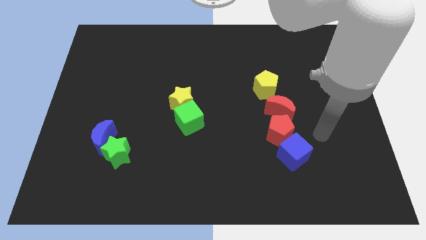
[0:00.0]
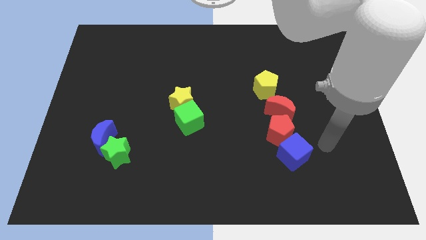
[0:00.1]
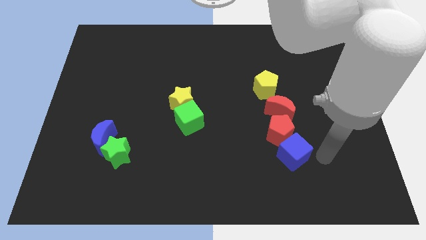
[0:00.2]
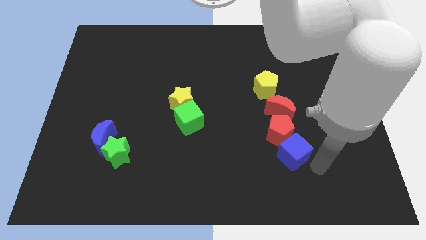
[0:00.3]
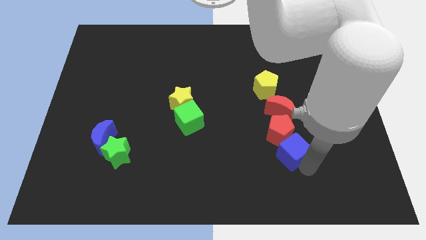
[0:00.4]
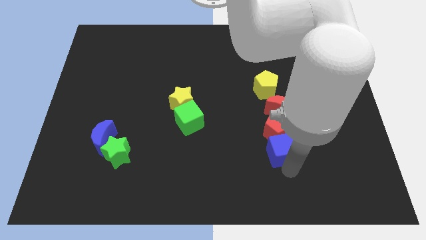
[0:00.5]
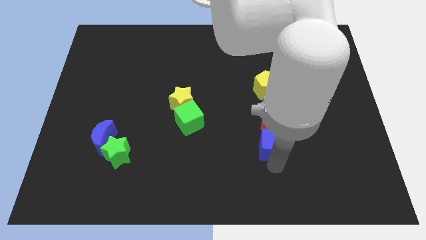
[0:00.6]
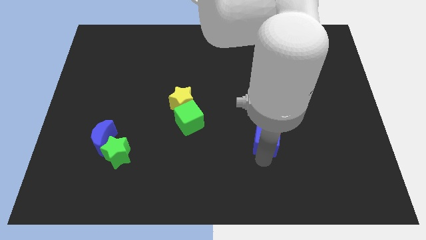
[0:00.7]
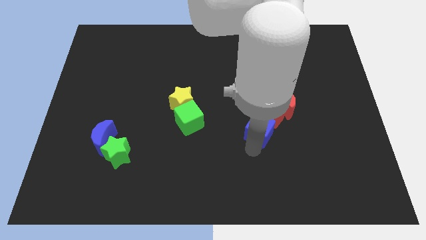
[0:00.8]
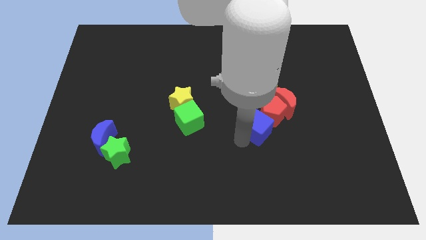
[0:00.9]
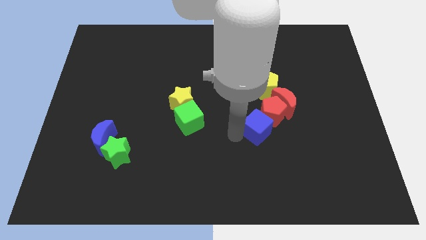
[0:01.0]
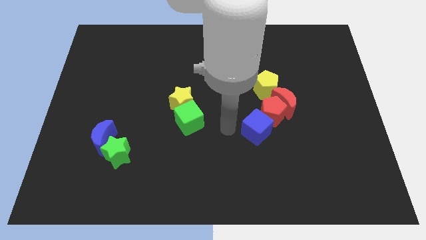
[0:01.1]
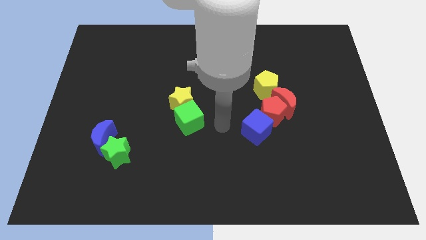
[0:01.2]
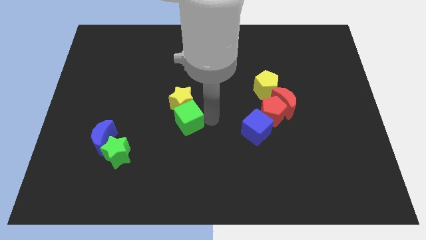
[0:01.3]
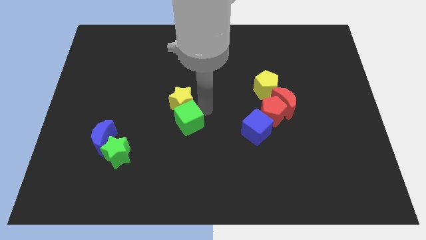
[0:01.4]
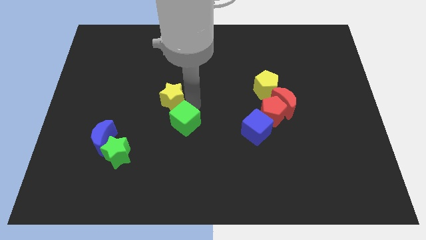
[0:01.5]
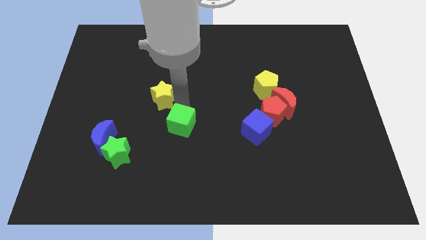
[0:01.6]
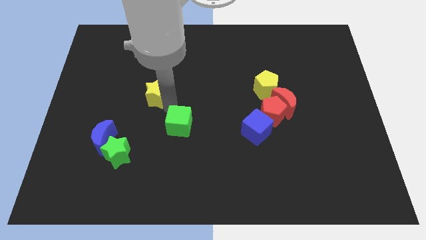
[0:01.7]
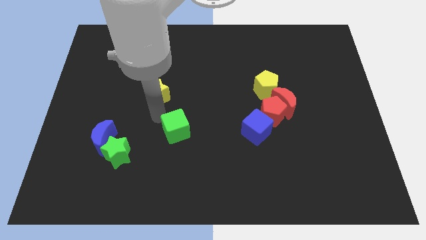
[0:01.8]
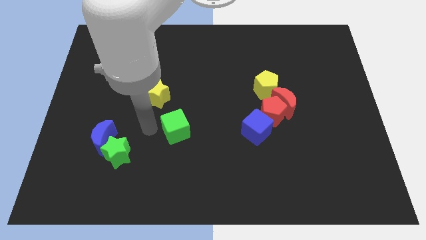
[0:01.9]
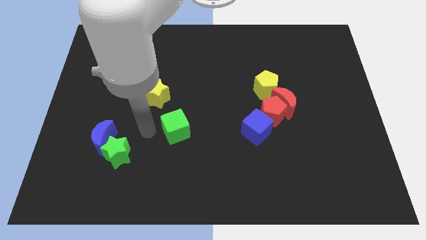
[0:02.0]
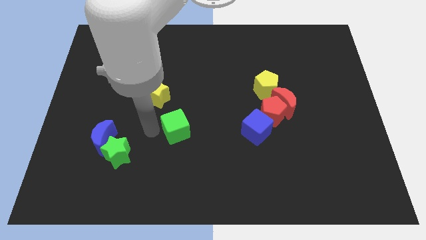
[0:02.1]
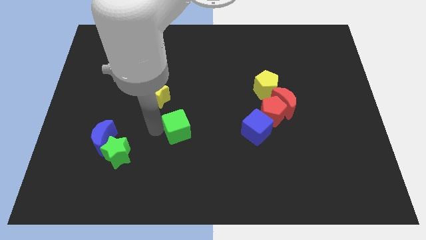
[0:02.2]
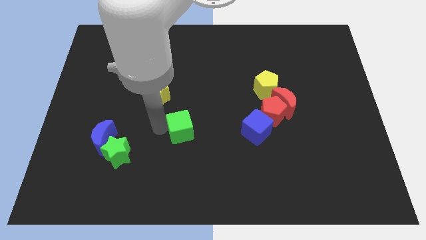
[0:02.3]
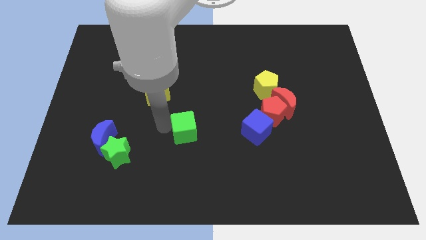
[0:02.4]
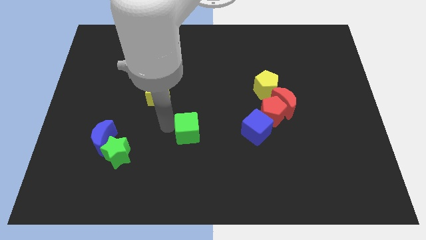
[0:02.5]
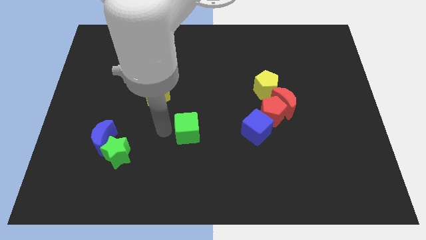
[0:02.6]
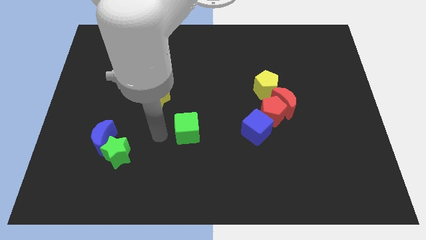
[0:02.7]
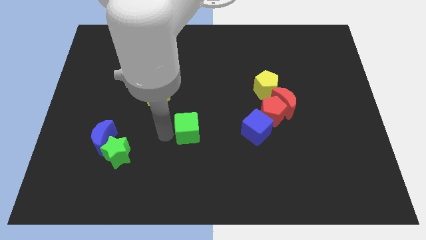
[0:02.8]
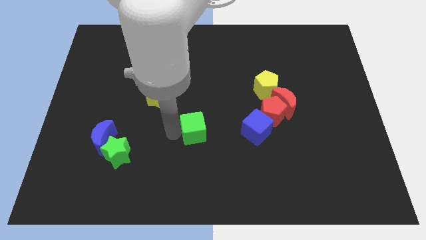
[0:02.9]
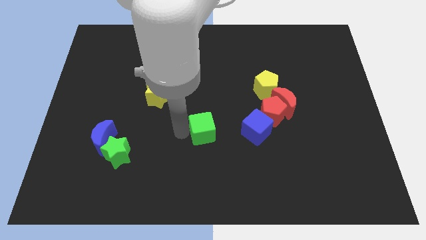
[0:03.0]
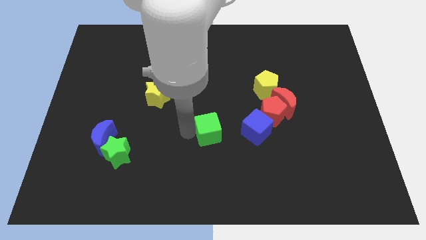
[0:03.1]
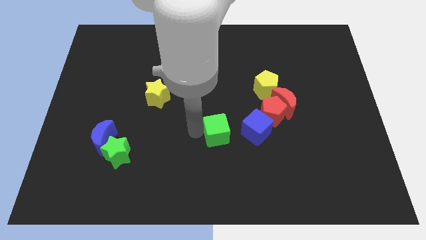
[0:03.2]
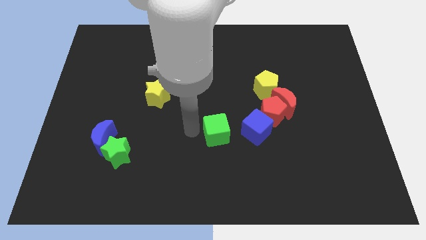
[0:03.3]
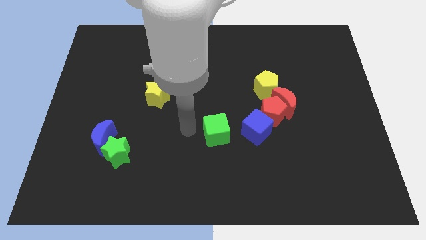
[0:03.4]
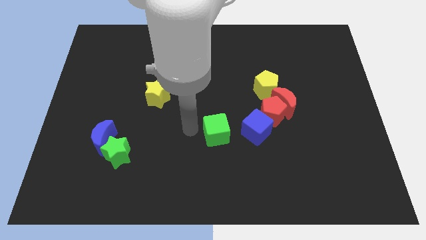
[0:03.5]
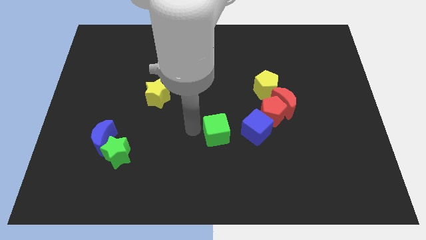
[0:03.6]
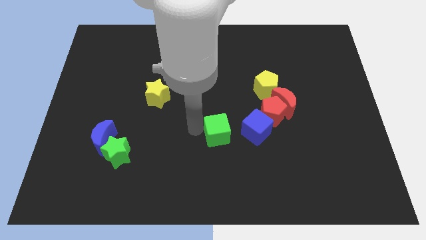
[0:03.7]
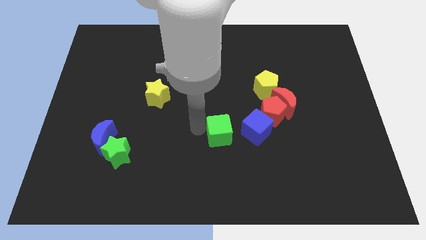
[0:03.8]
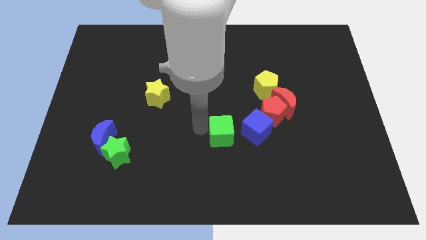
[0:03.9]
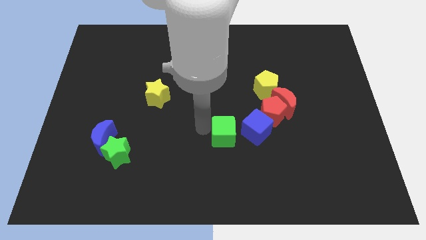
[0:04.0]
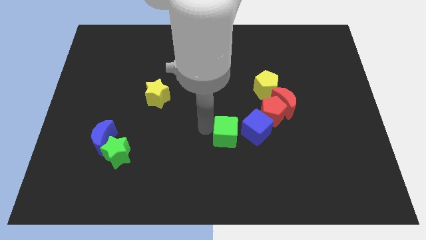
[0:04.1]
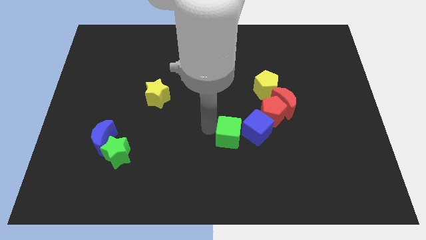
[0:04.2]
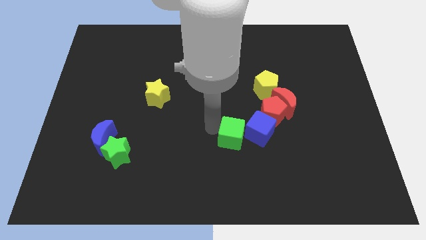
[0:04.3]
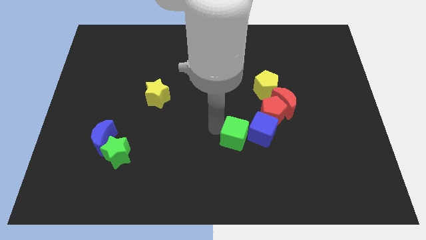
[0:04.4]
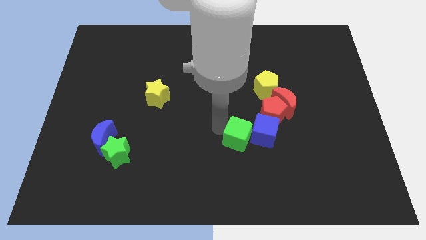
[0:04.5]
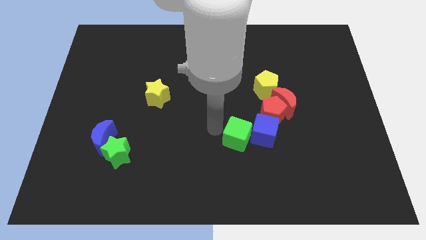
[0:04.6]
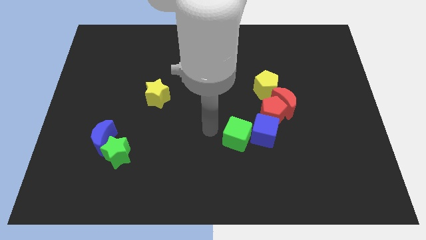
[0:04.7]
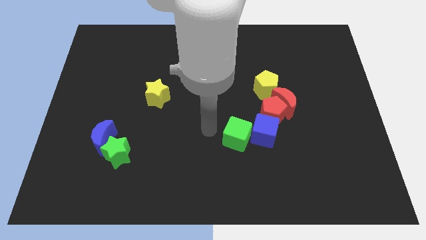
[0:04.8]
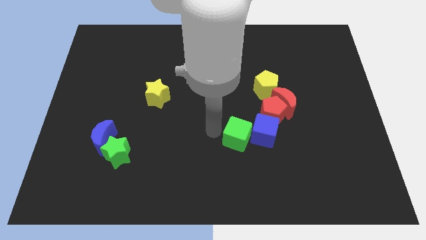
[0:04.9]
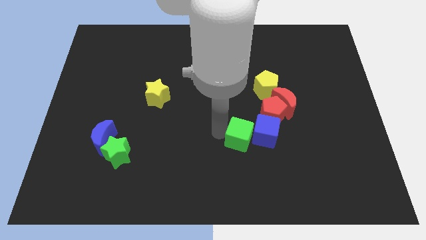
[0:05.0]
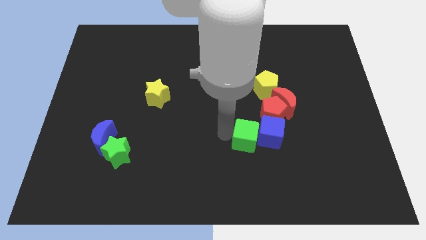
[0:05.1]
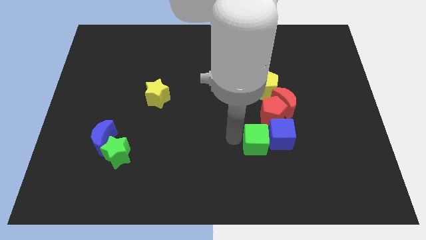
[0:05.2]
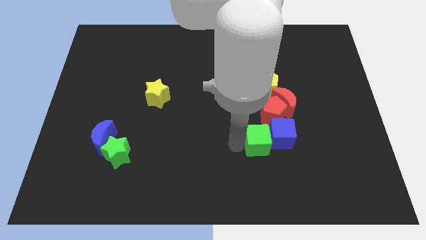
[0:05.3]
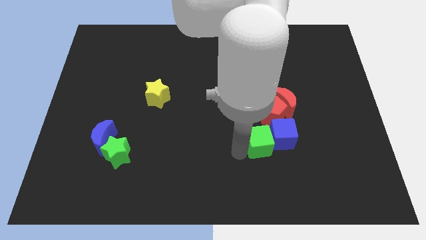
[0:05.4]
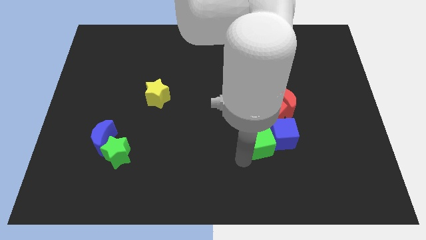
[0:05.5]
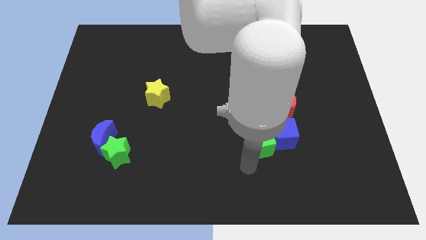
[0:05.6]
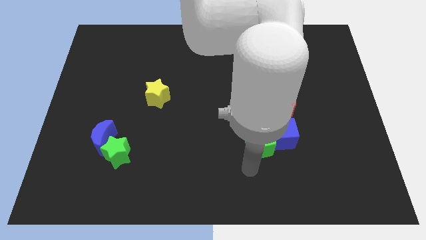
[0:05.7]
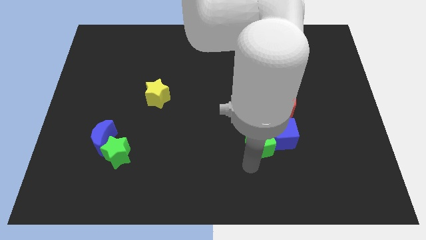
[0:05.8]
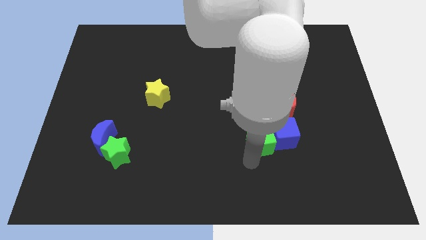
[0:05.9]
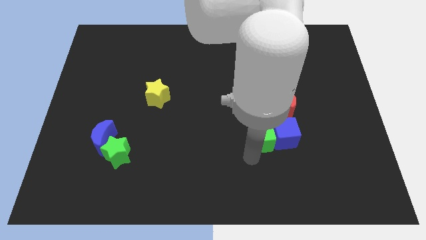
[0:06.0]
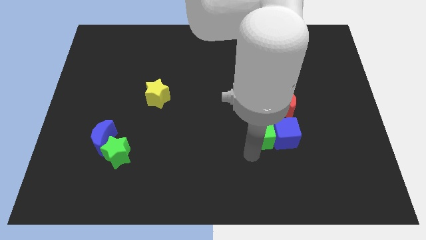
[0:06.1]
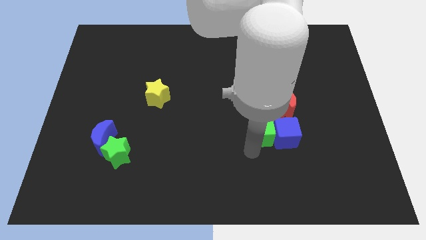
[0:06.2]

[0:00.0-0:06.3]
slide the green cube to the red pentagon

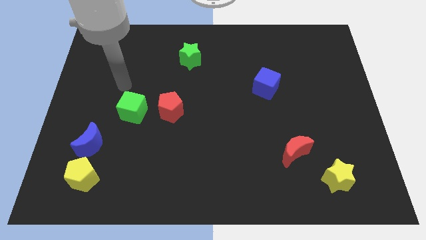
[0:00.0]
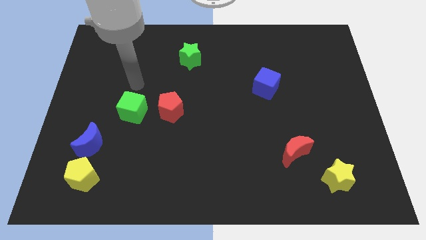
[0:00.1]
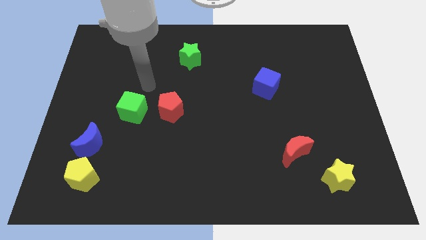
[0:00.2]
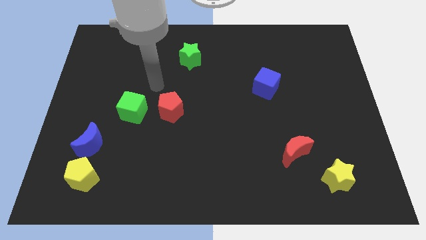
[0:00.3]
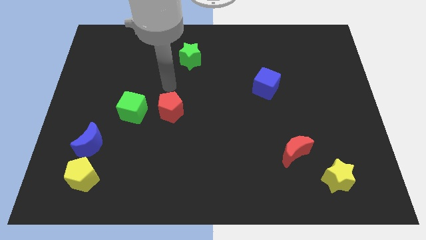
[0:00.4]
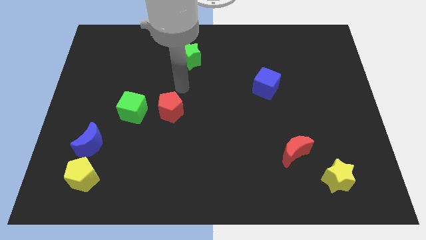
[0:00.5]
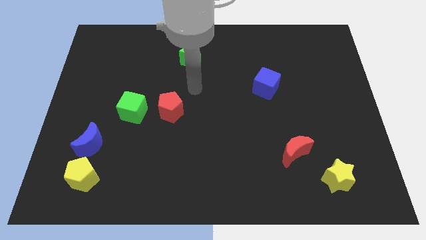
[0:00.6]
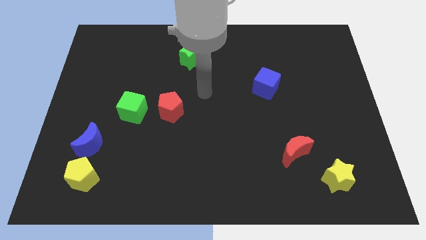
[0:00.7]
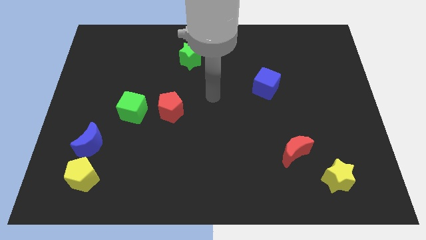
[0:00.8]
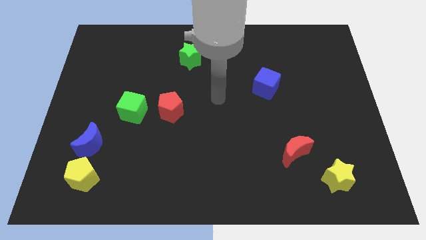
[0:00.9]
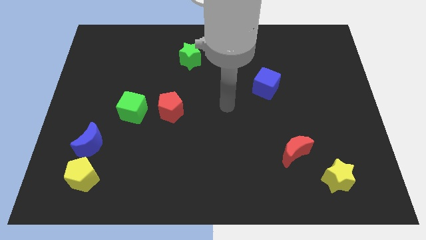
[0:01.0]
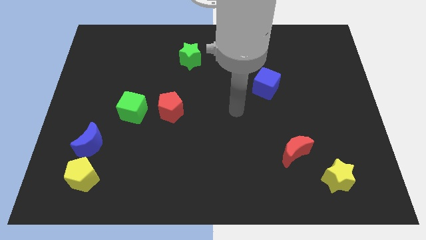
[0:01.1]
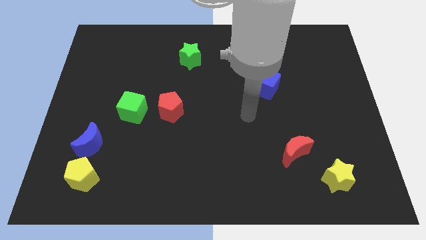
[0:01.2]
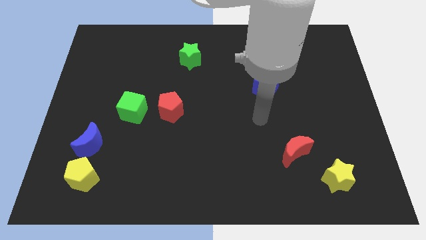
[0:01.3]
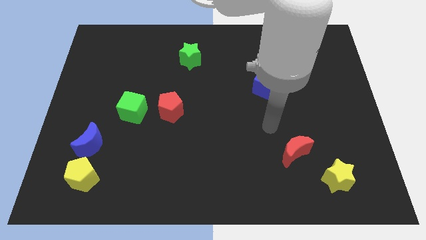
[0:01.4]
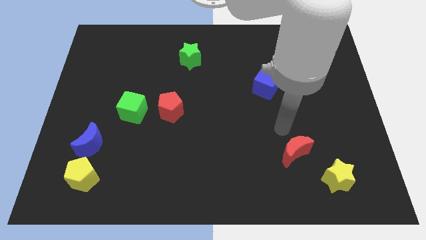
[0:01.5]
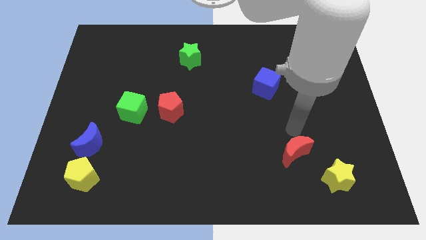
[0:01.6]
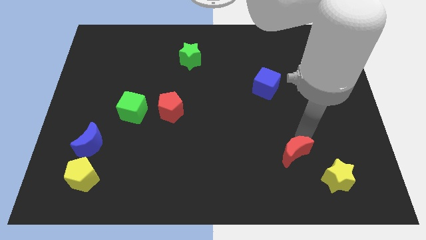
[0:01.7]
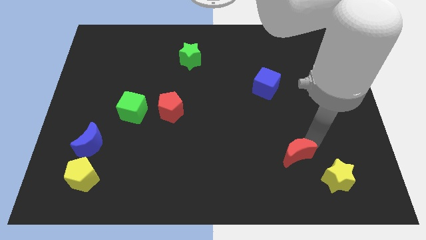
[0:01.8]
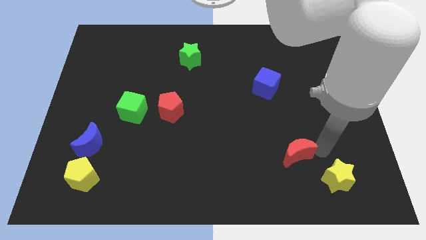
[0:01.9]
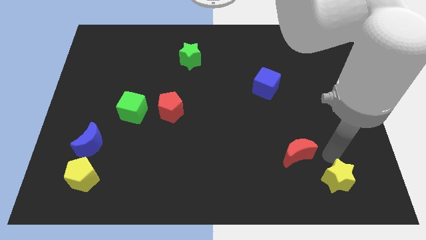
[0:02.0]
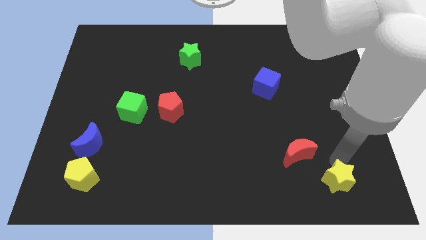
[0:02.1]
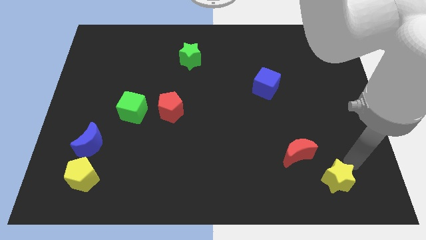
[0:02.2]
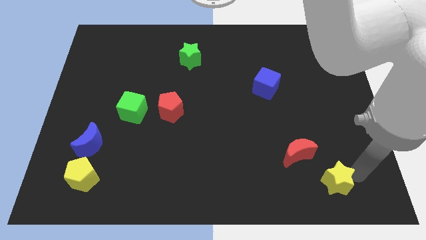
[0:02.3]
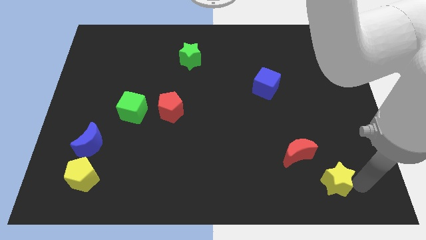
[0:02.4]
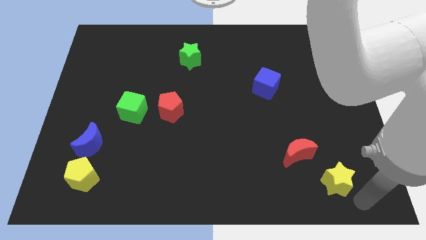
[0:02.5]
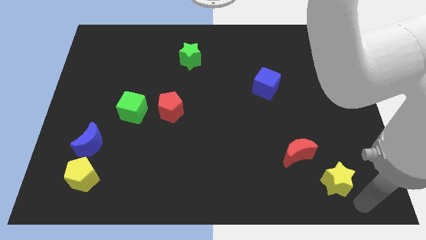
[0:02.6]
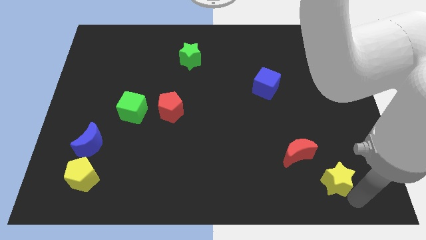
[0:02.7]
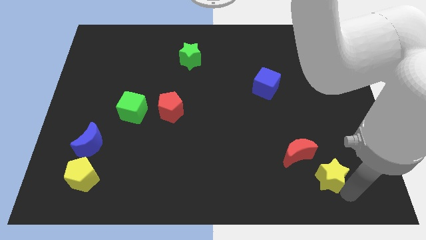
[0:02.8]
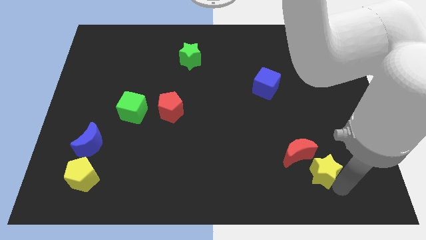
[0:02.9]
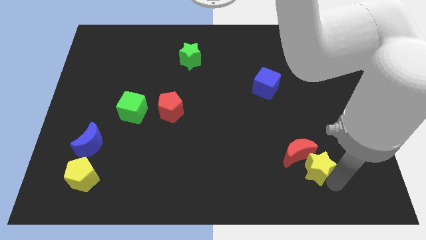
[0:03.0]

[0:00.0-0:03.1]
move the yellow star to the red moon
